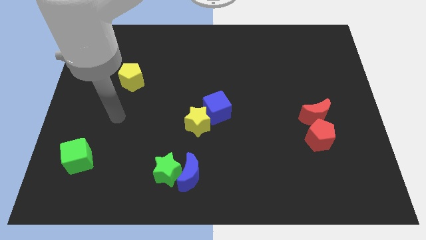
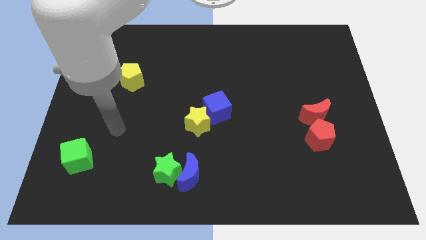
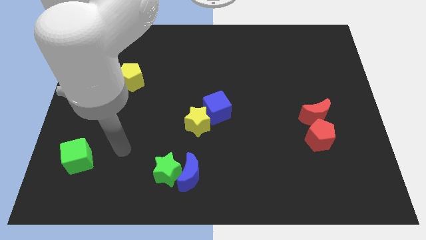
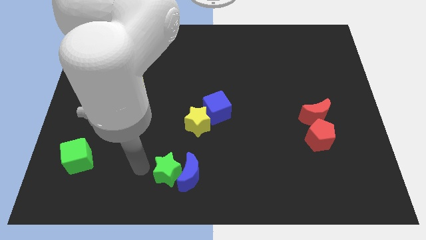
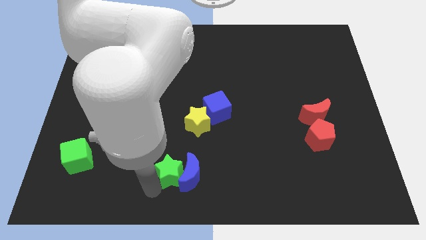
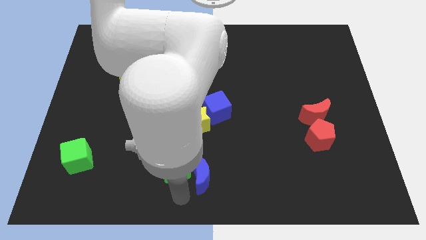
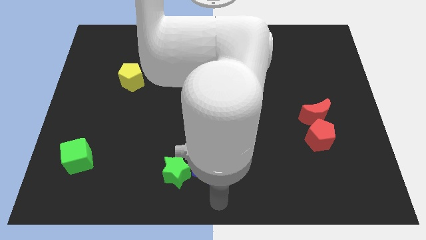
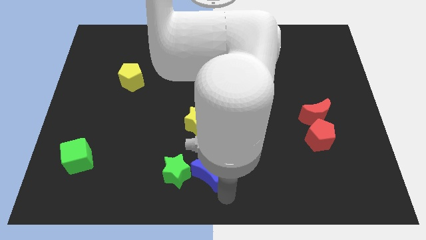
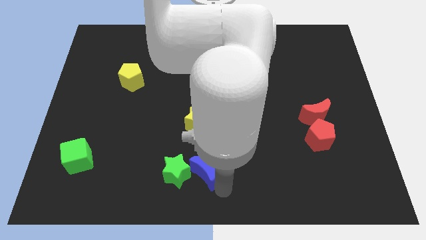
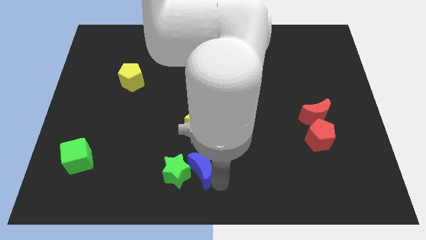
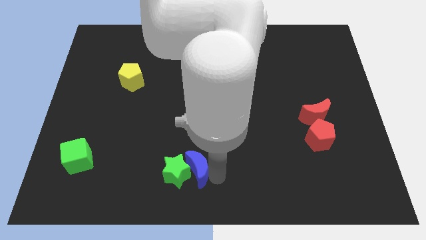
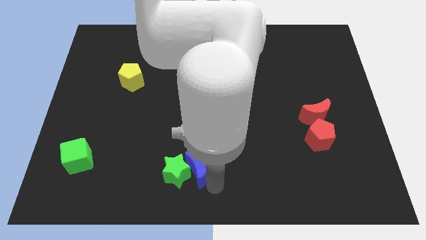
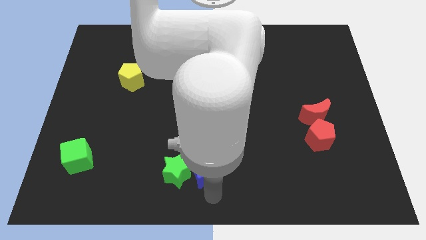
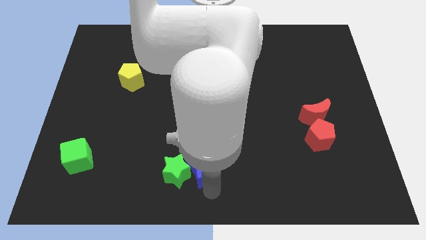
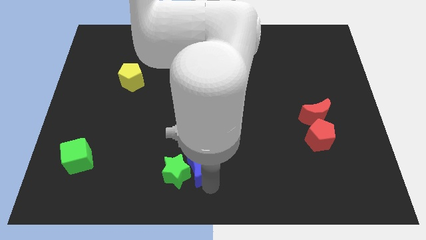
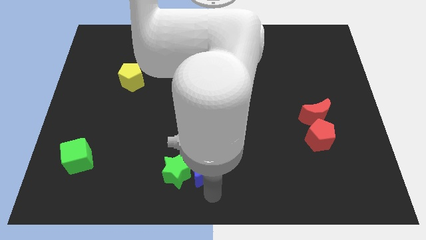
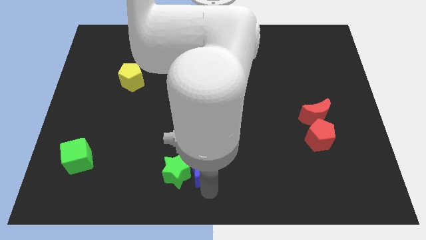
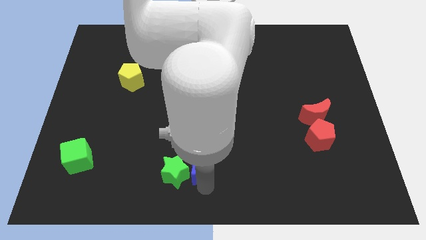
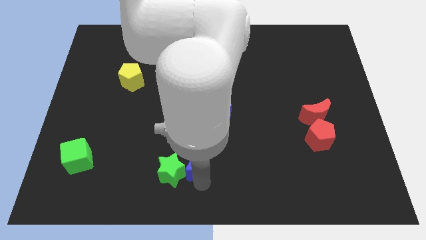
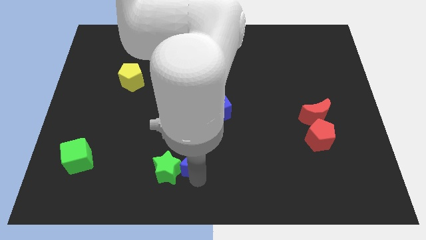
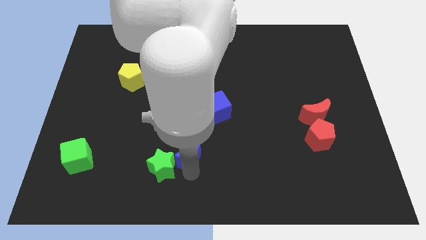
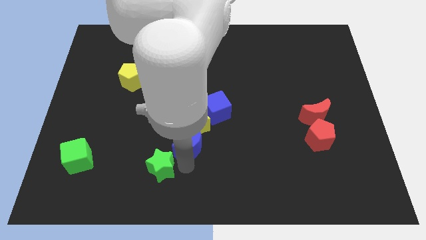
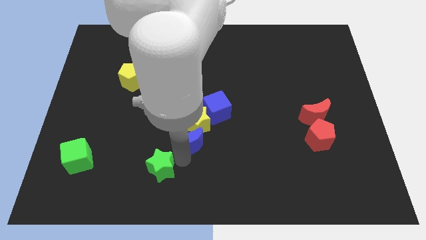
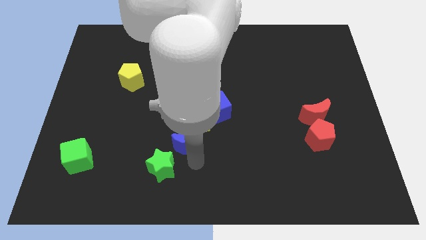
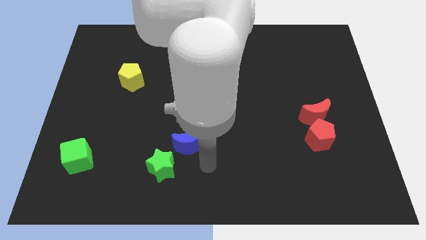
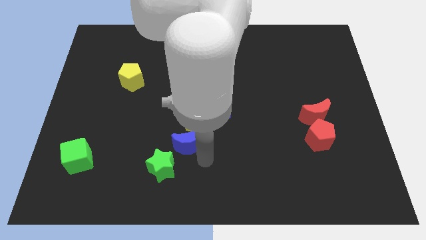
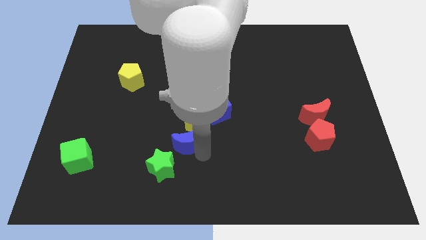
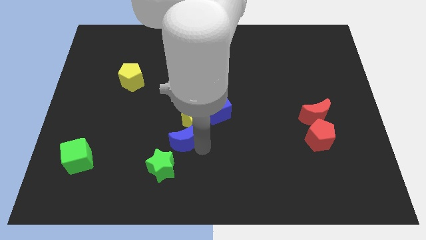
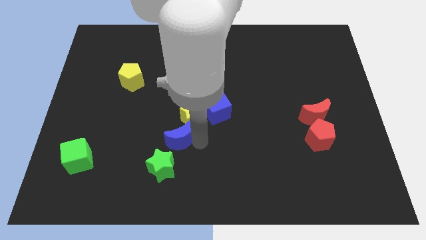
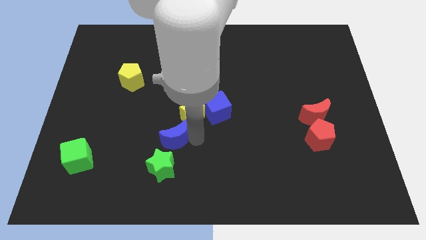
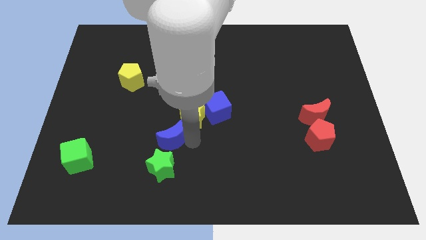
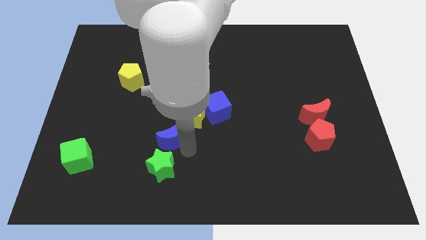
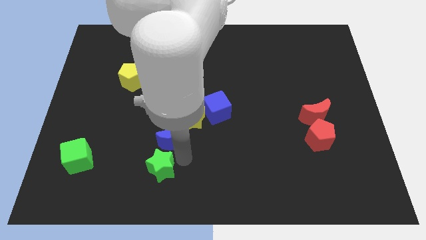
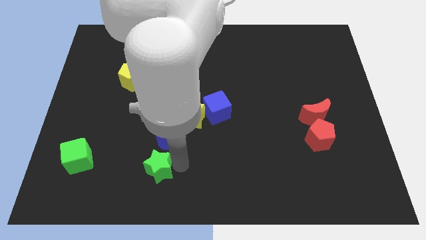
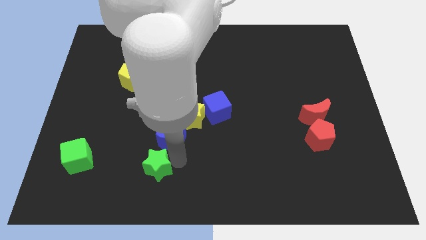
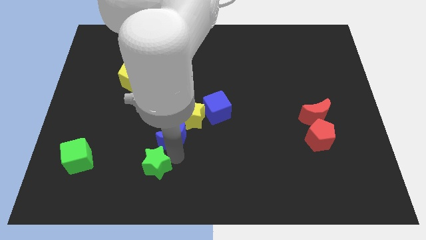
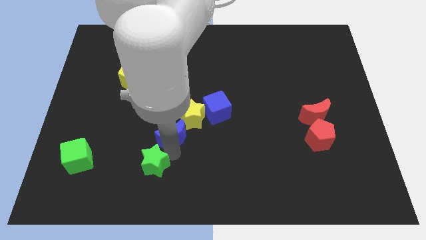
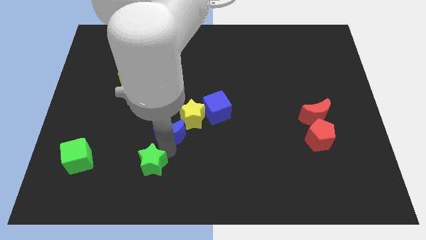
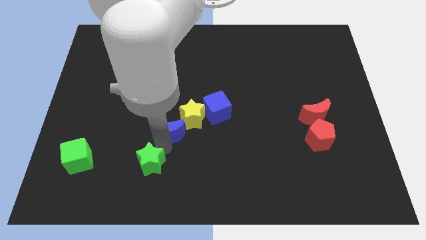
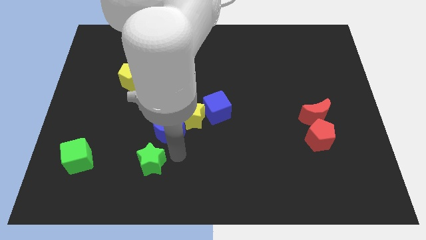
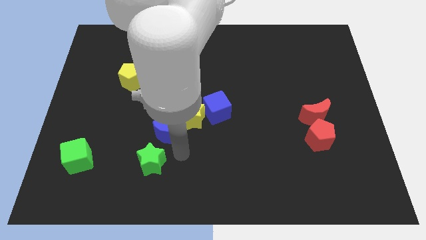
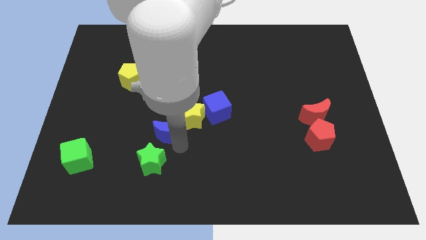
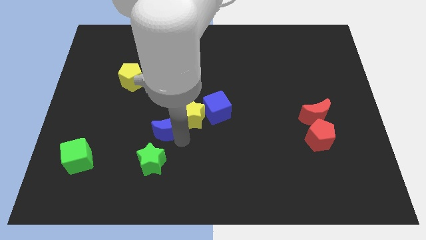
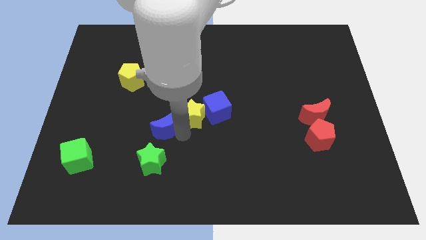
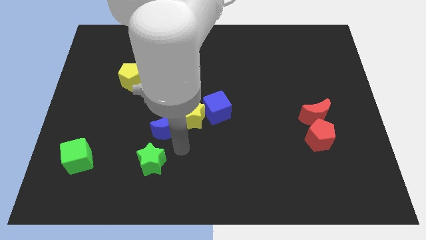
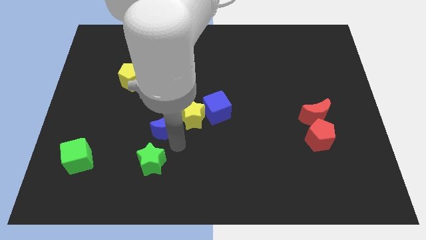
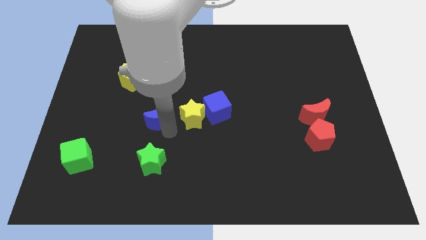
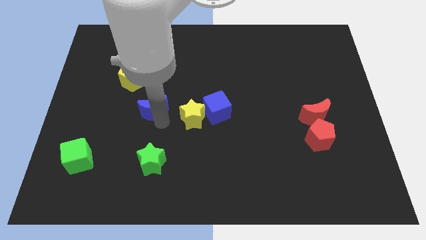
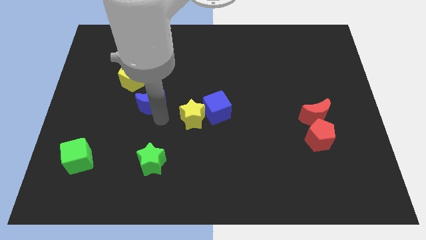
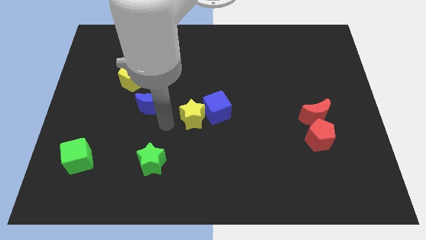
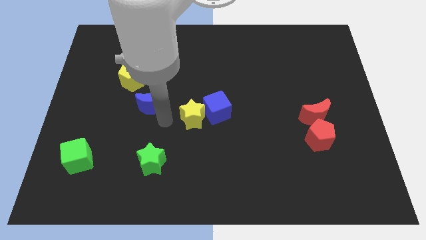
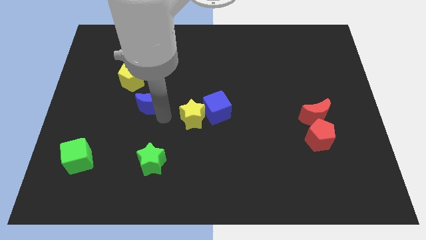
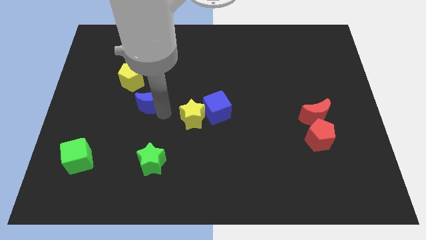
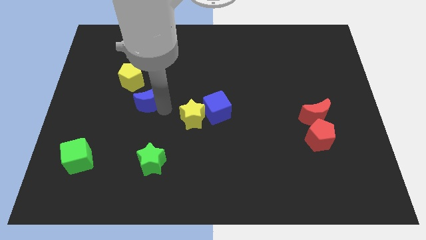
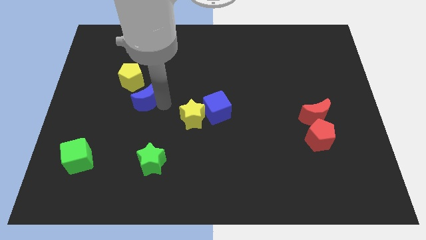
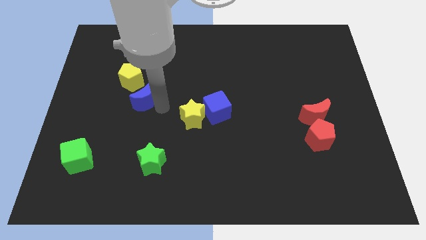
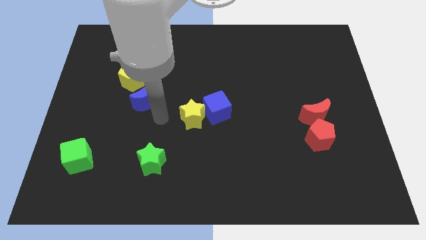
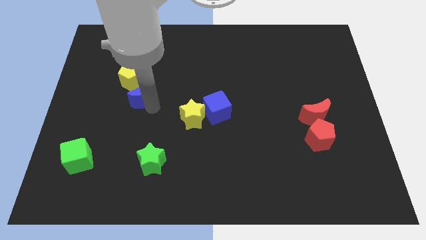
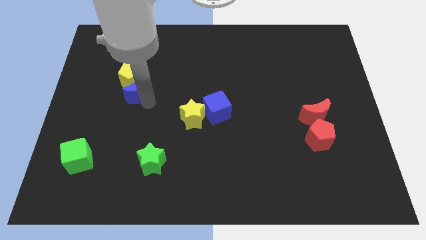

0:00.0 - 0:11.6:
push the blue moon close to the yellow pentagon

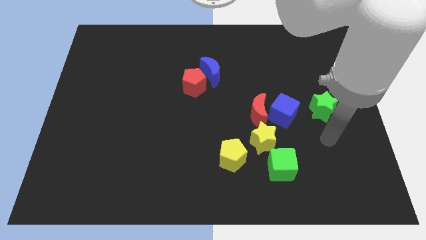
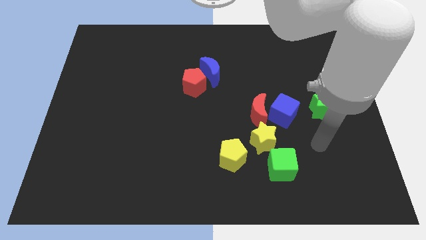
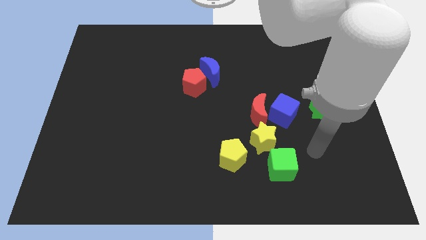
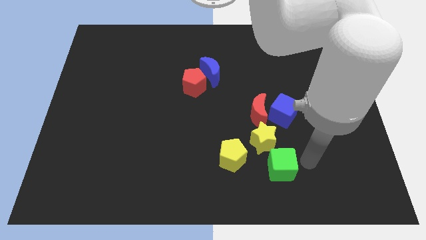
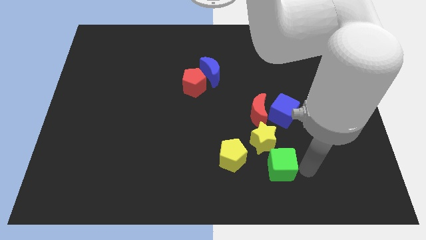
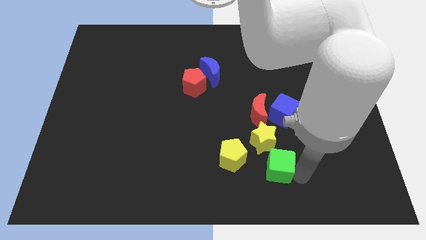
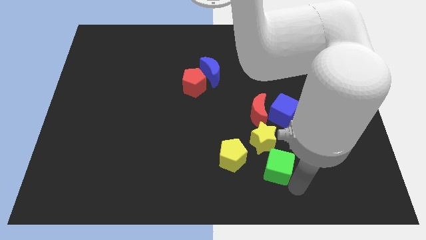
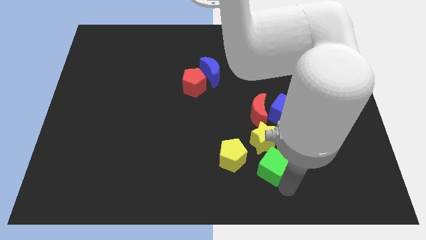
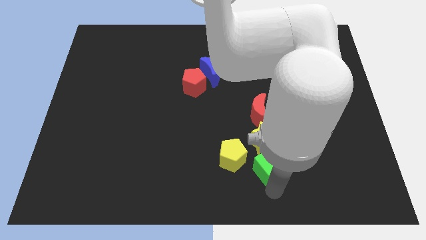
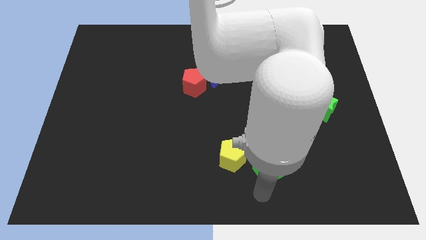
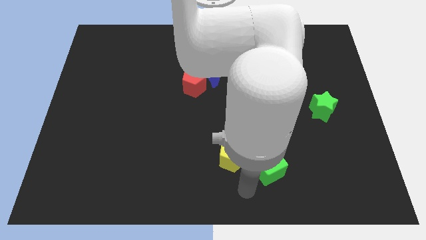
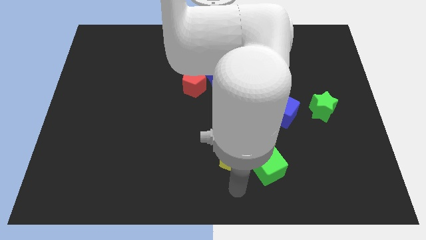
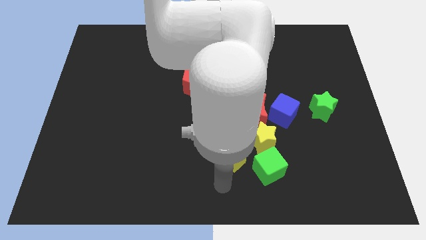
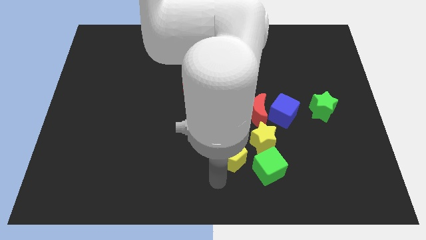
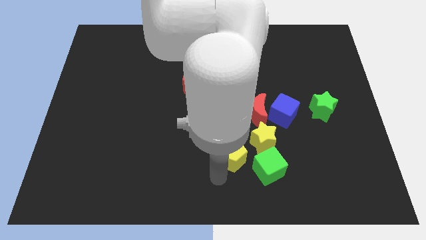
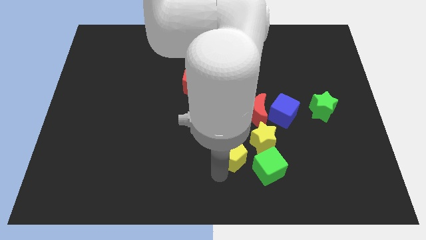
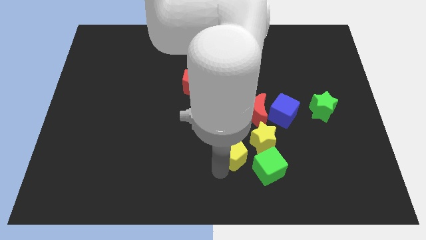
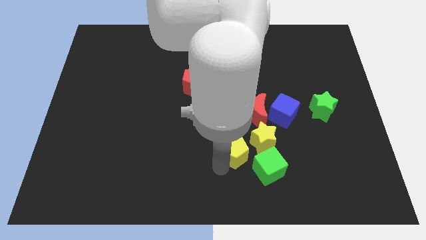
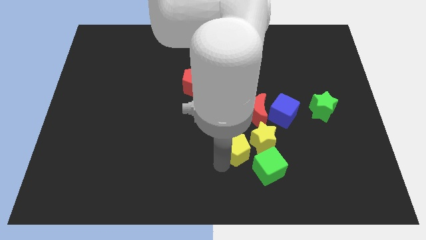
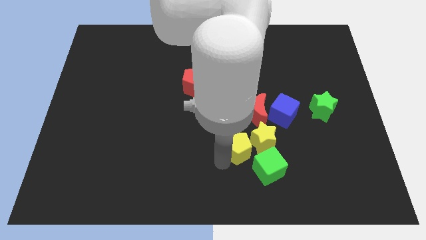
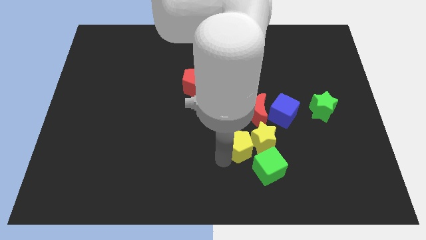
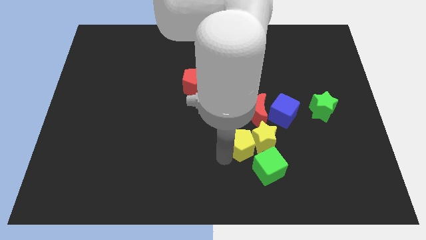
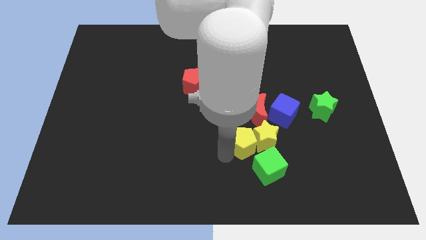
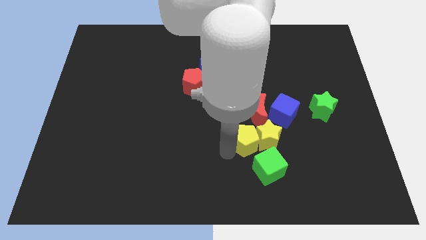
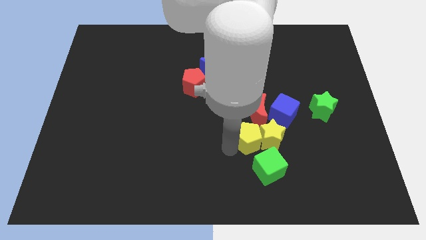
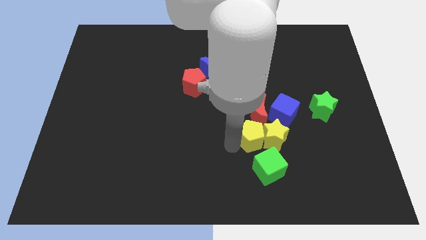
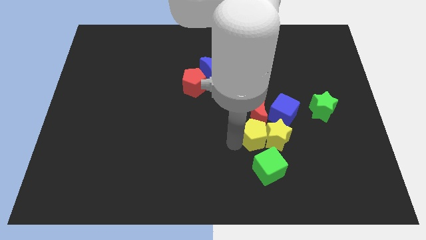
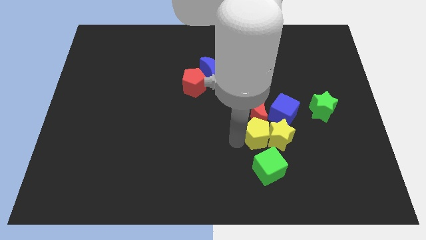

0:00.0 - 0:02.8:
push the yellow pentagon to the red moon
